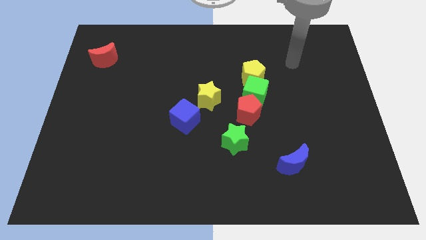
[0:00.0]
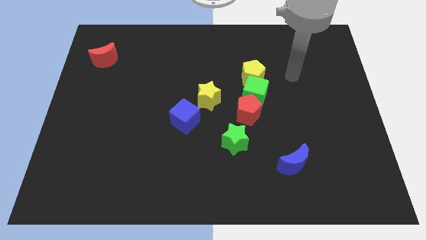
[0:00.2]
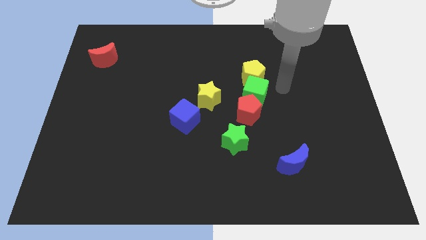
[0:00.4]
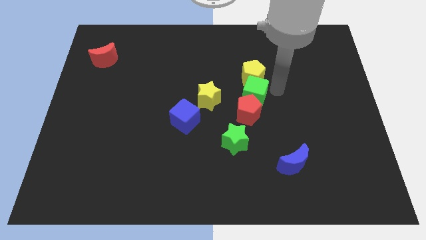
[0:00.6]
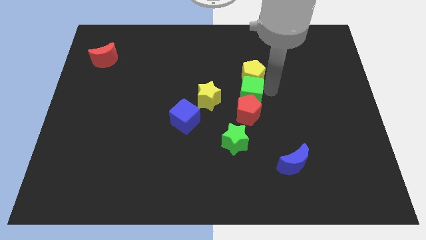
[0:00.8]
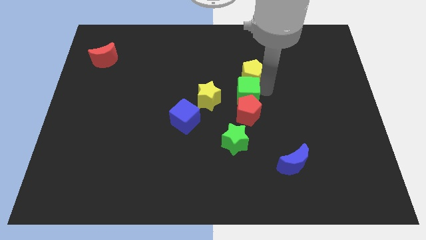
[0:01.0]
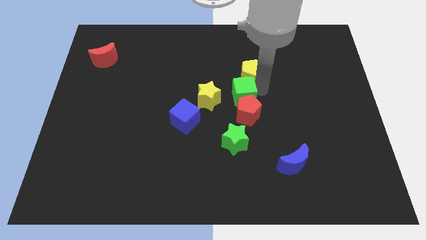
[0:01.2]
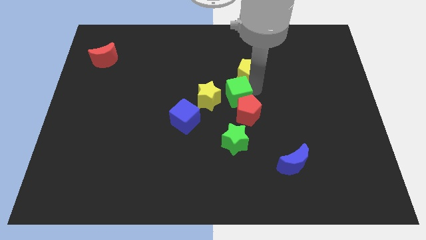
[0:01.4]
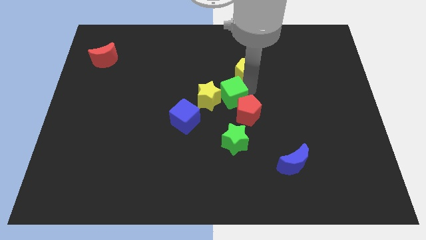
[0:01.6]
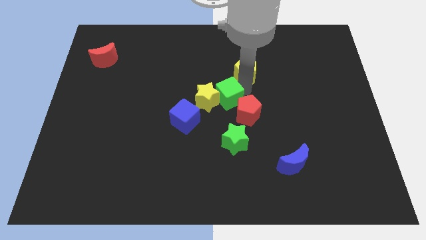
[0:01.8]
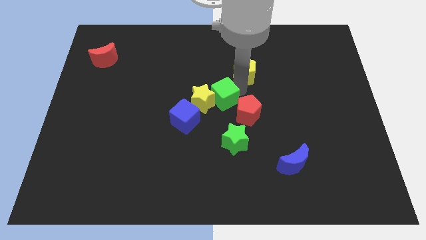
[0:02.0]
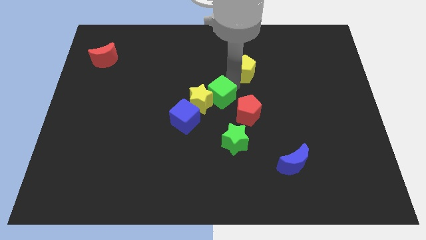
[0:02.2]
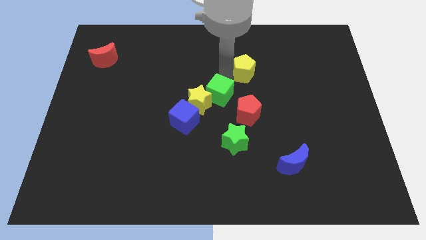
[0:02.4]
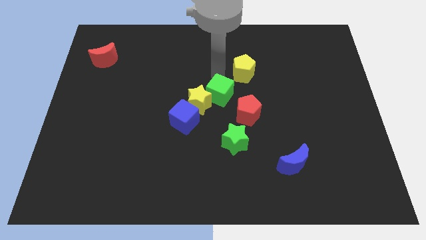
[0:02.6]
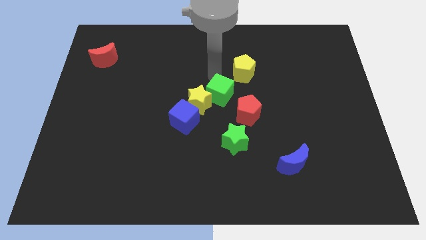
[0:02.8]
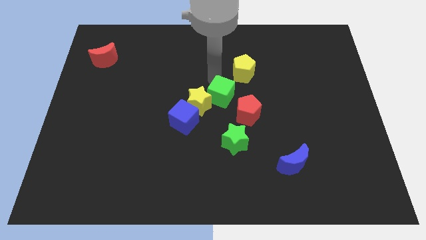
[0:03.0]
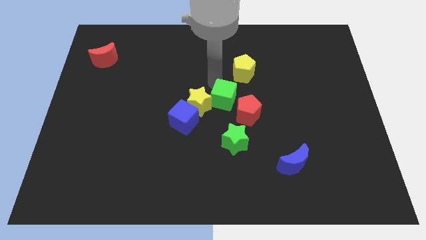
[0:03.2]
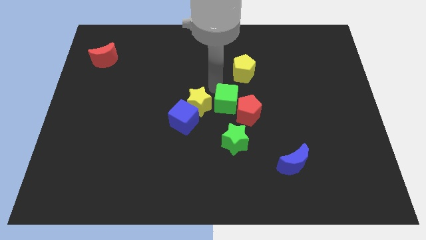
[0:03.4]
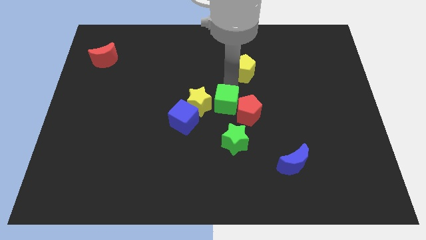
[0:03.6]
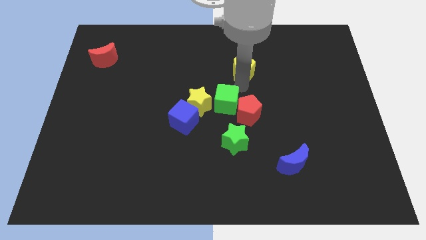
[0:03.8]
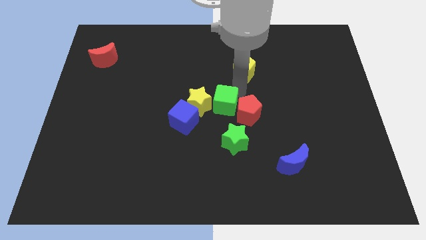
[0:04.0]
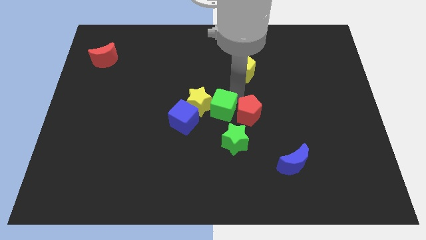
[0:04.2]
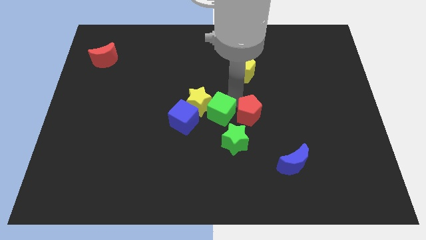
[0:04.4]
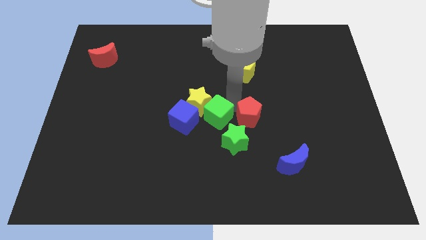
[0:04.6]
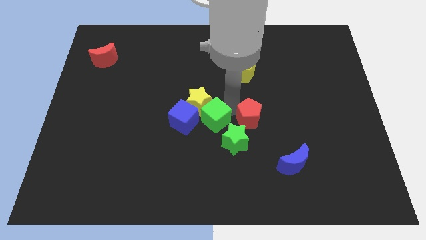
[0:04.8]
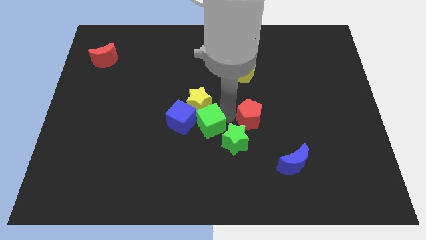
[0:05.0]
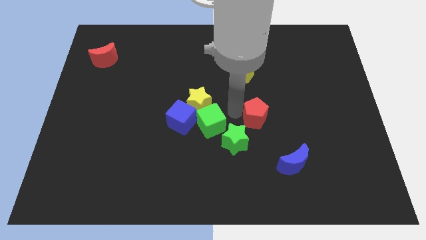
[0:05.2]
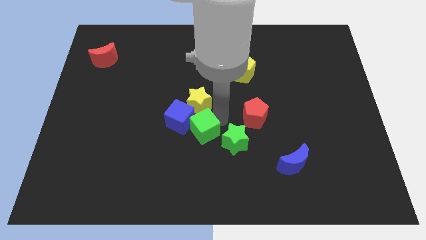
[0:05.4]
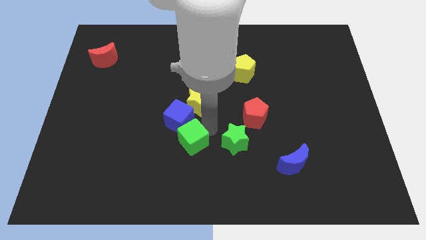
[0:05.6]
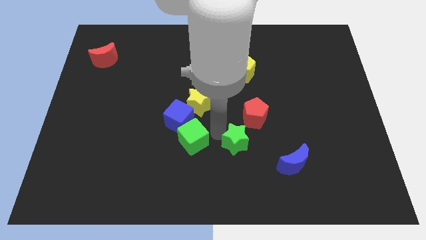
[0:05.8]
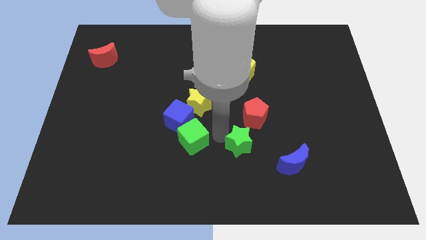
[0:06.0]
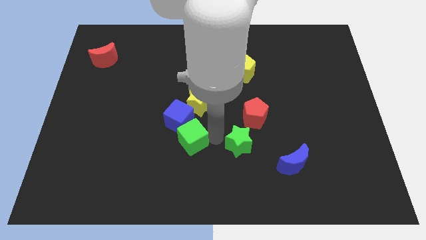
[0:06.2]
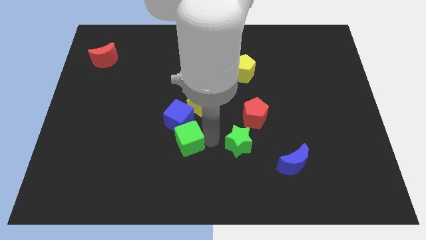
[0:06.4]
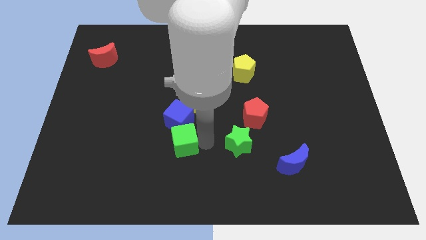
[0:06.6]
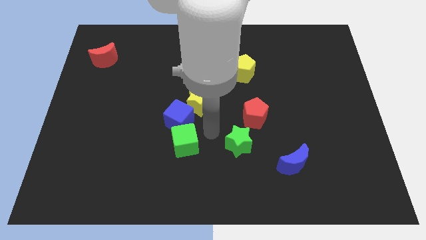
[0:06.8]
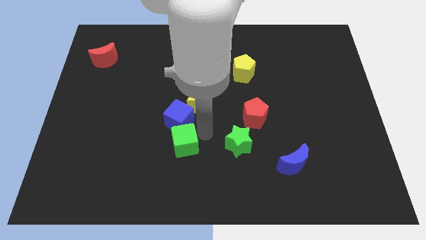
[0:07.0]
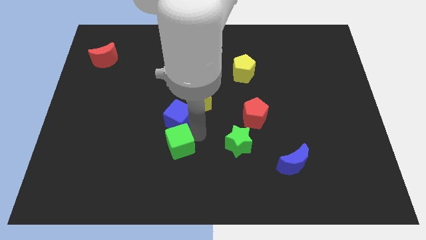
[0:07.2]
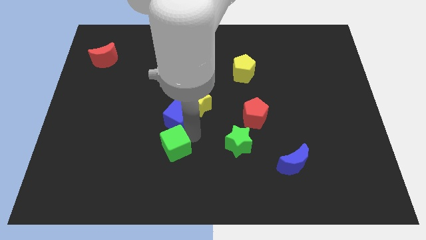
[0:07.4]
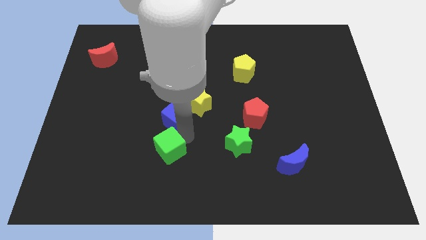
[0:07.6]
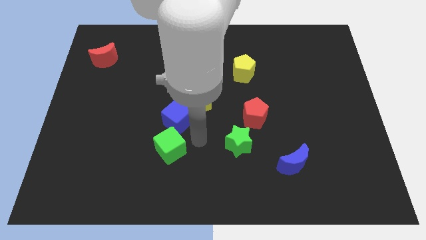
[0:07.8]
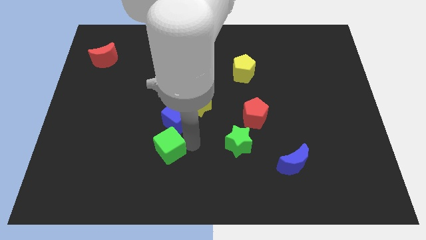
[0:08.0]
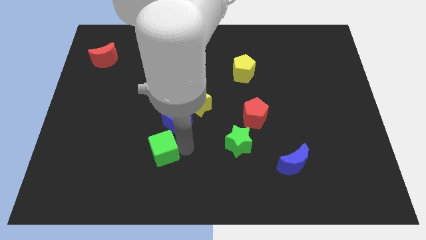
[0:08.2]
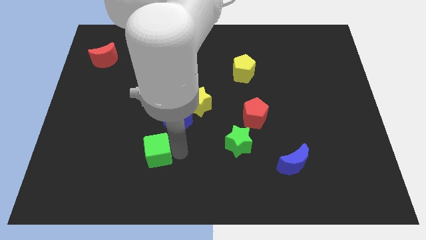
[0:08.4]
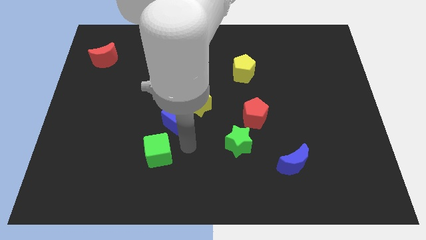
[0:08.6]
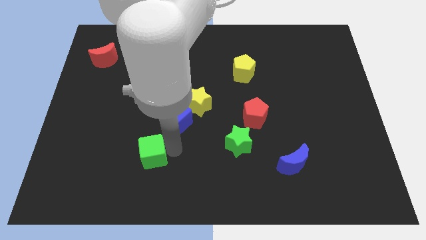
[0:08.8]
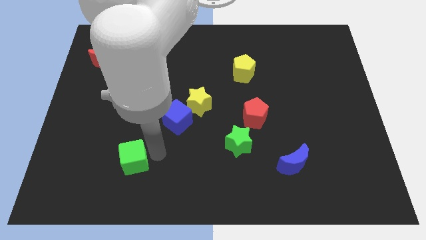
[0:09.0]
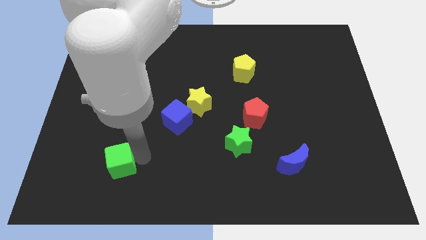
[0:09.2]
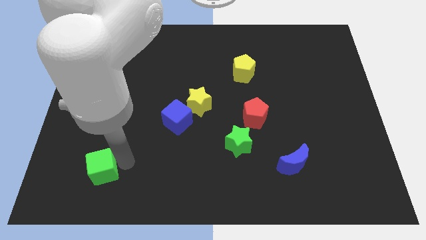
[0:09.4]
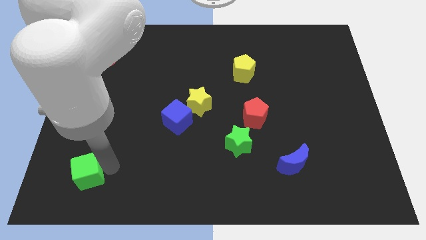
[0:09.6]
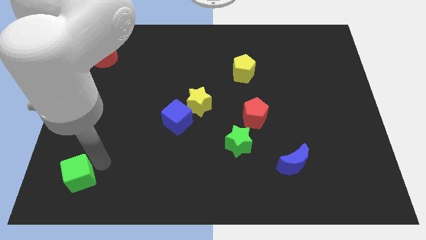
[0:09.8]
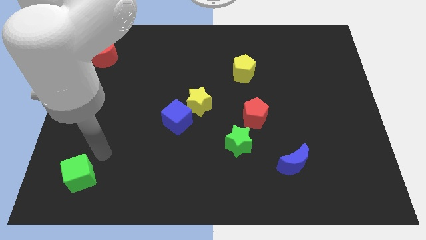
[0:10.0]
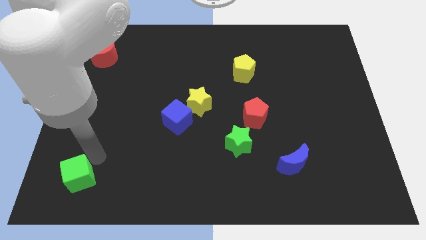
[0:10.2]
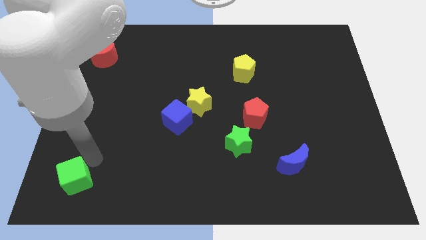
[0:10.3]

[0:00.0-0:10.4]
put the green cube to the bottom left

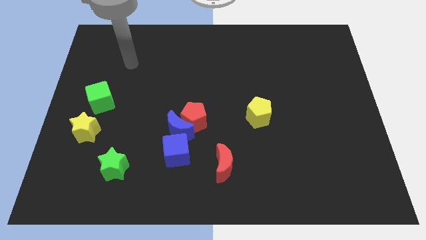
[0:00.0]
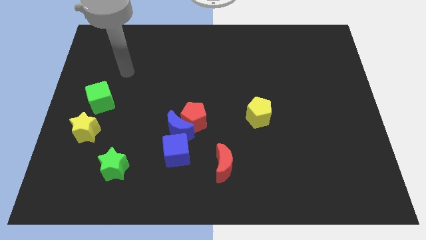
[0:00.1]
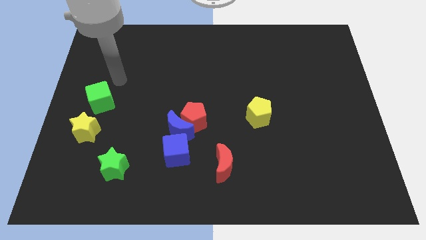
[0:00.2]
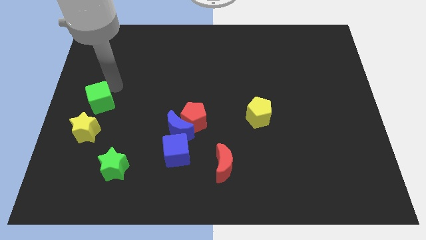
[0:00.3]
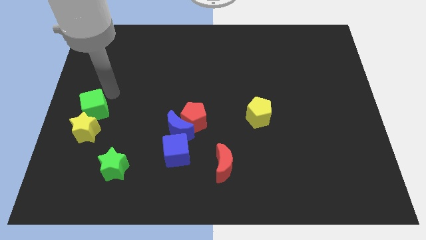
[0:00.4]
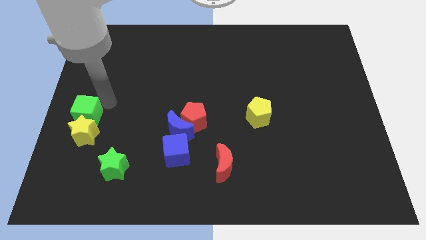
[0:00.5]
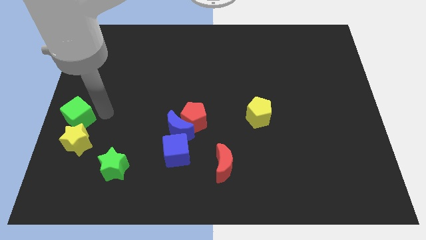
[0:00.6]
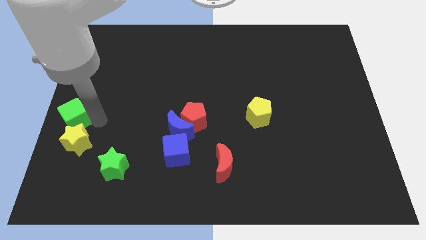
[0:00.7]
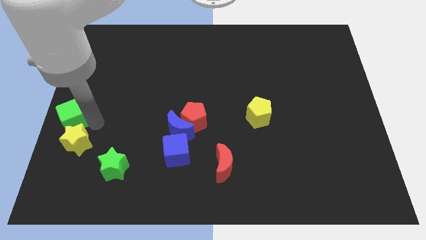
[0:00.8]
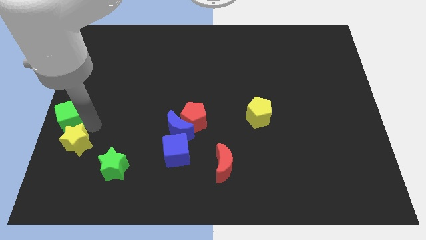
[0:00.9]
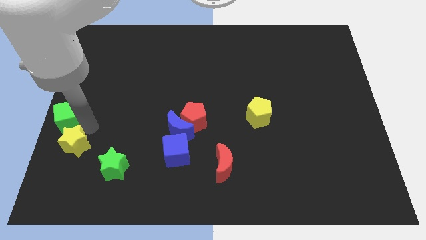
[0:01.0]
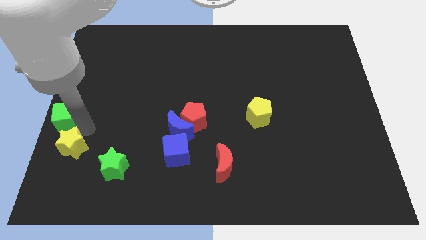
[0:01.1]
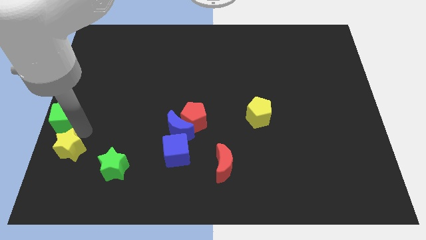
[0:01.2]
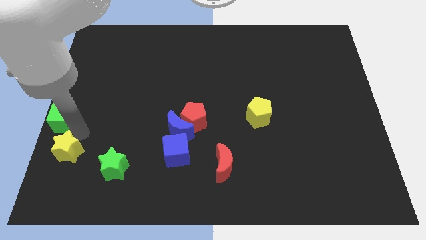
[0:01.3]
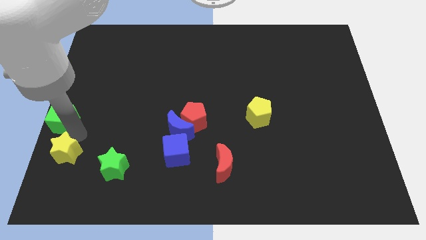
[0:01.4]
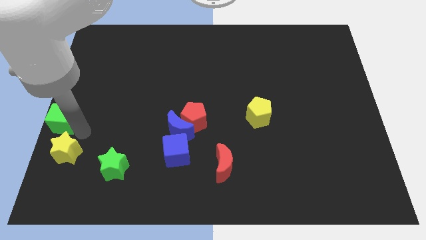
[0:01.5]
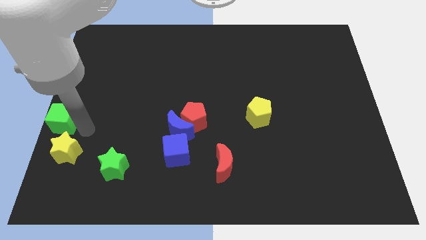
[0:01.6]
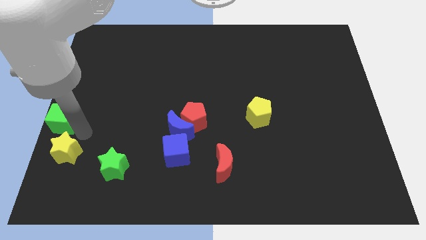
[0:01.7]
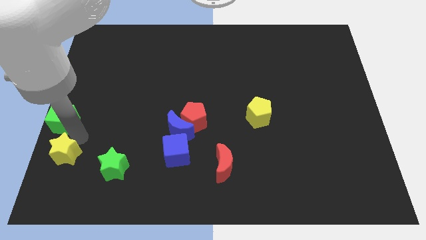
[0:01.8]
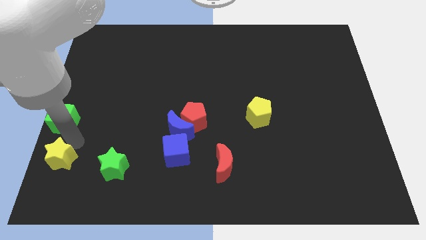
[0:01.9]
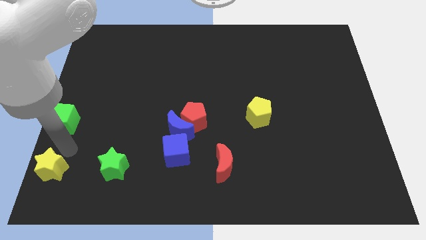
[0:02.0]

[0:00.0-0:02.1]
push the yellow star to the bottom left corner
